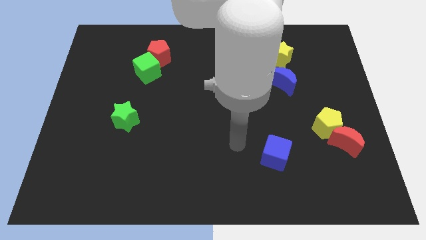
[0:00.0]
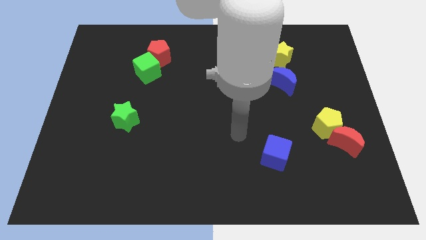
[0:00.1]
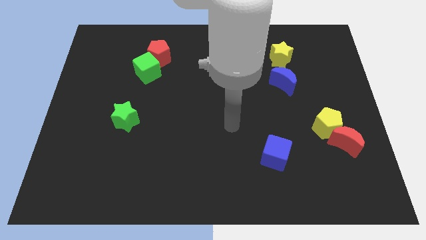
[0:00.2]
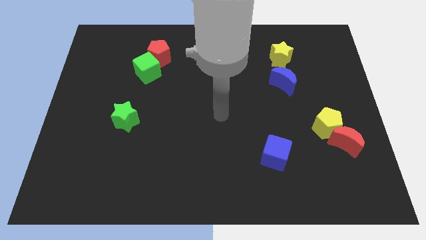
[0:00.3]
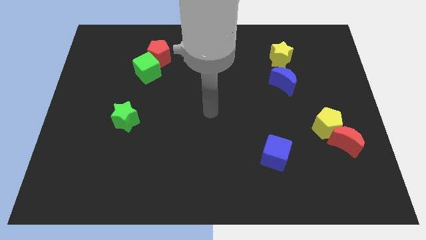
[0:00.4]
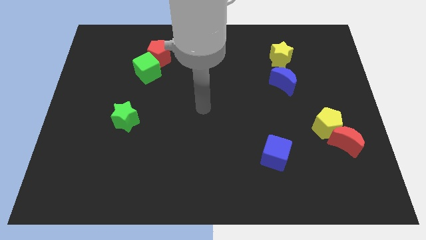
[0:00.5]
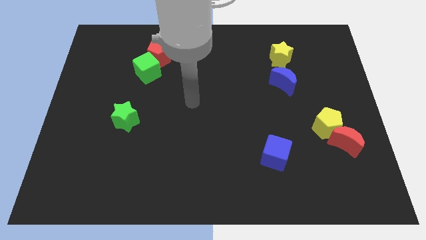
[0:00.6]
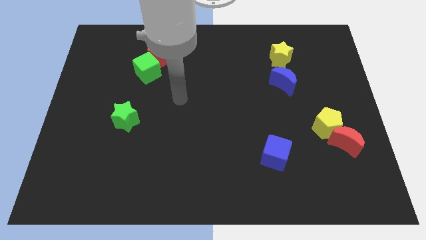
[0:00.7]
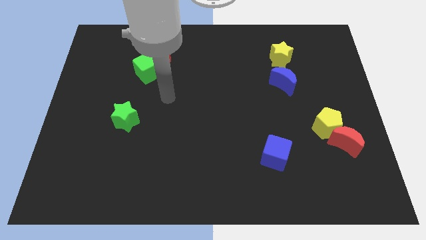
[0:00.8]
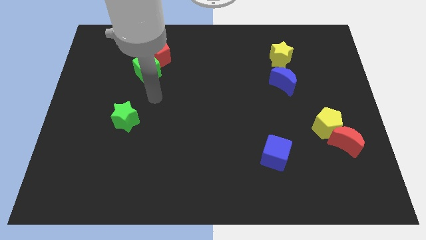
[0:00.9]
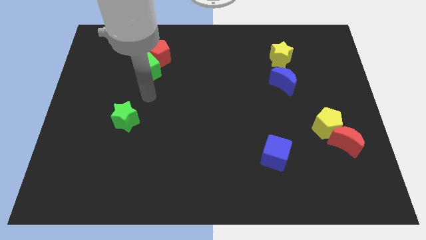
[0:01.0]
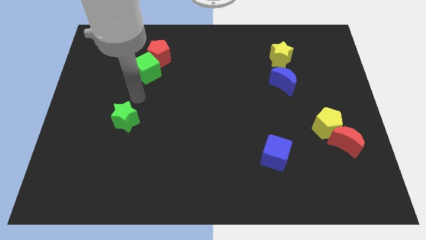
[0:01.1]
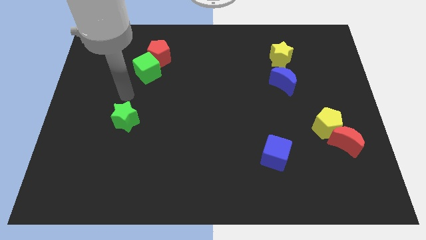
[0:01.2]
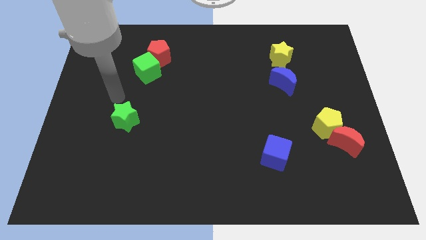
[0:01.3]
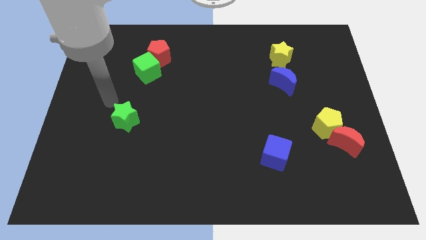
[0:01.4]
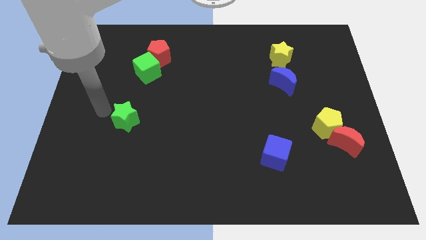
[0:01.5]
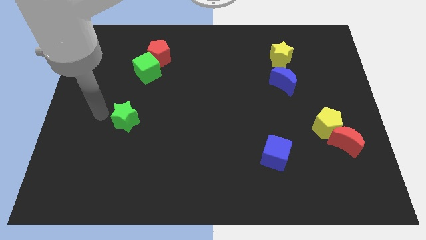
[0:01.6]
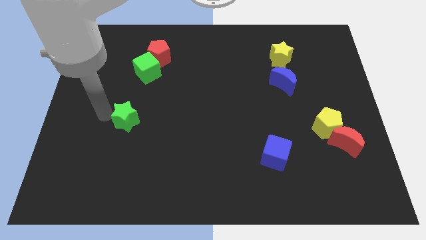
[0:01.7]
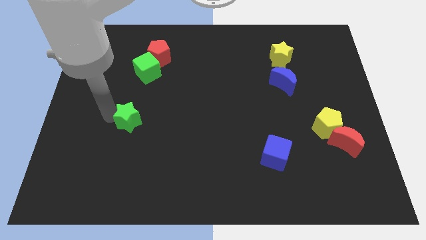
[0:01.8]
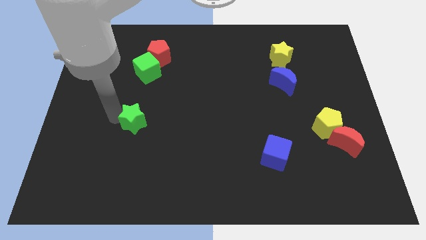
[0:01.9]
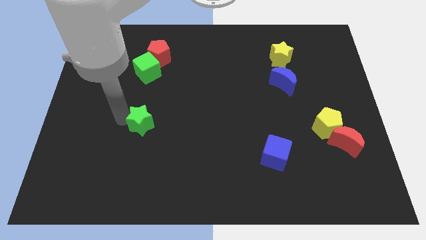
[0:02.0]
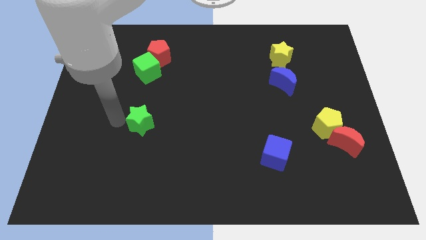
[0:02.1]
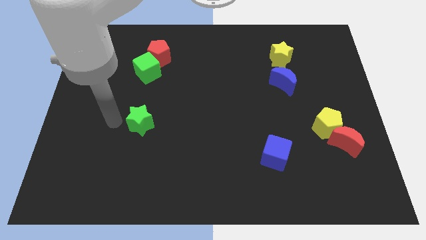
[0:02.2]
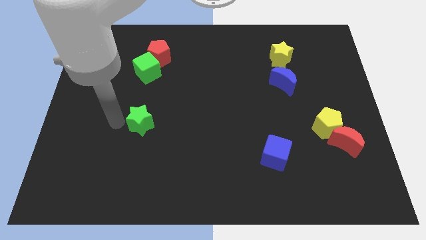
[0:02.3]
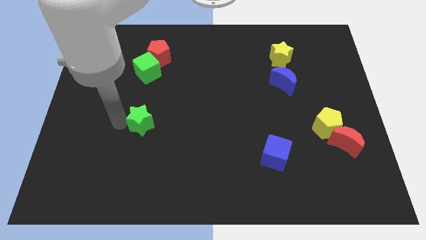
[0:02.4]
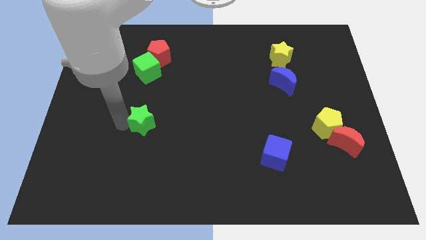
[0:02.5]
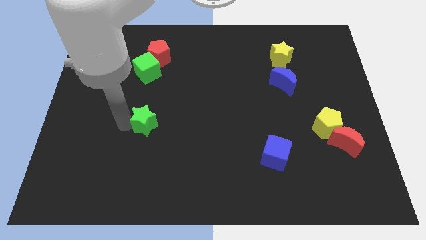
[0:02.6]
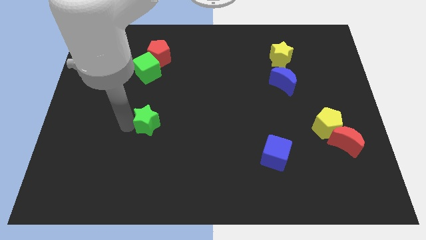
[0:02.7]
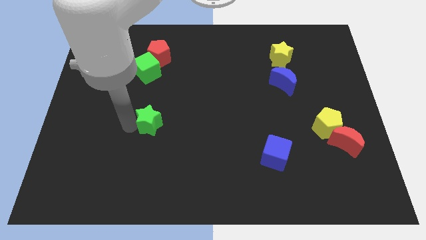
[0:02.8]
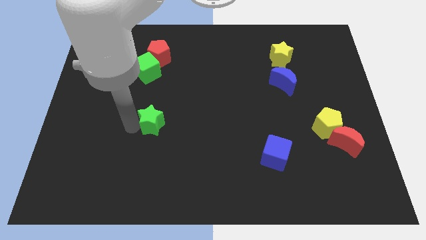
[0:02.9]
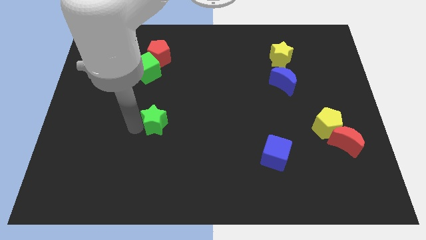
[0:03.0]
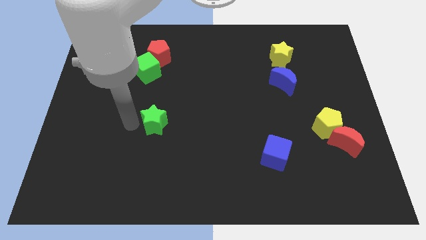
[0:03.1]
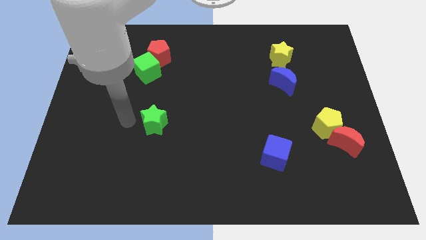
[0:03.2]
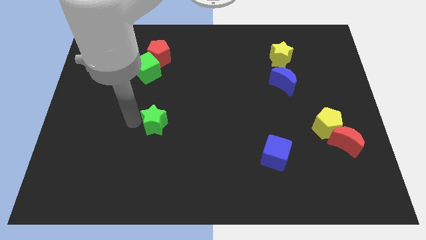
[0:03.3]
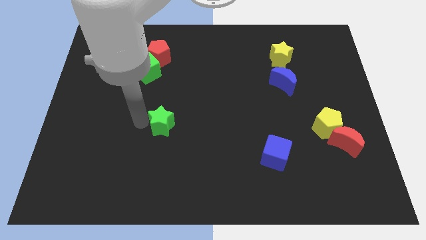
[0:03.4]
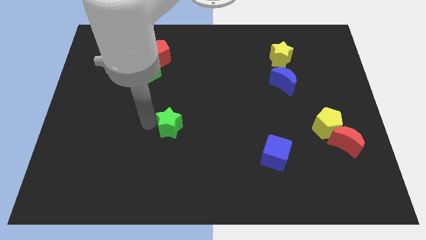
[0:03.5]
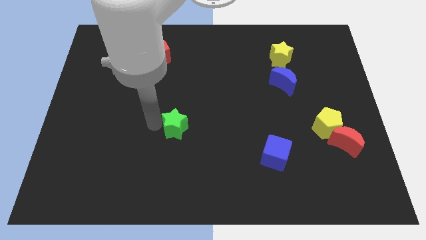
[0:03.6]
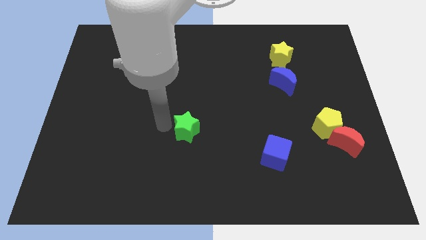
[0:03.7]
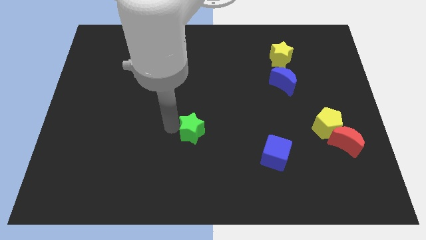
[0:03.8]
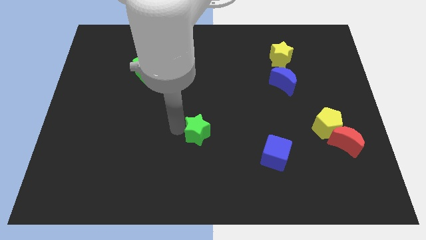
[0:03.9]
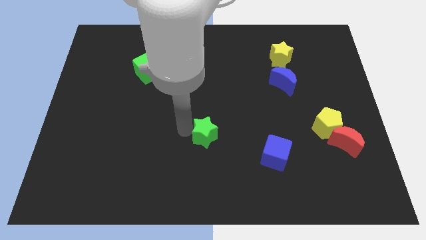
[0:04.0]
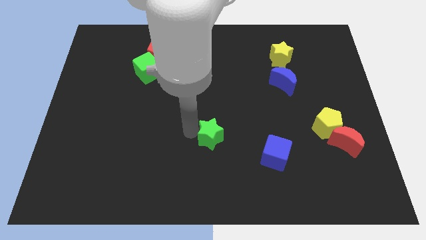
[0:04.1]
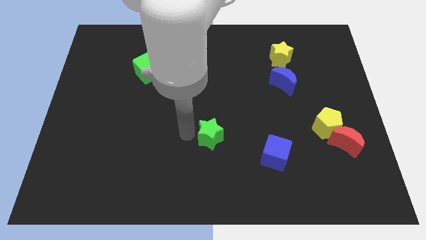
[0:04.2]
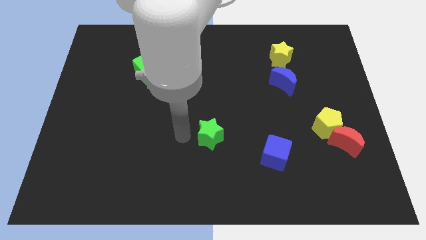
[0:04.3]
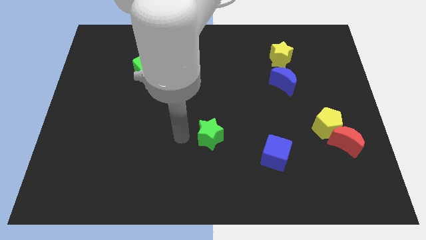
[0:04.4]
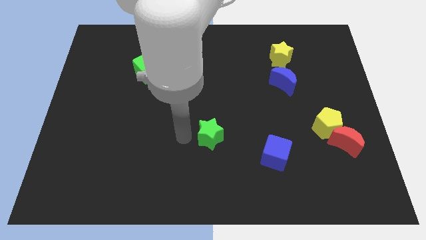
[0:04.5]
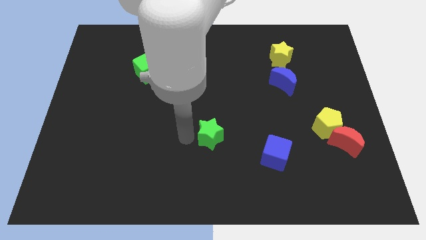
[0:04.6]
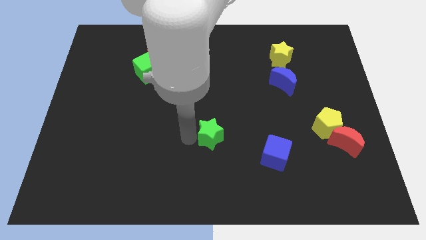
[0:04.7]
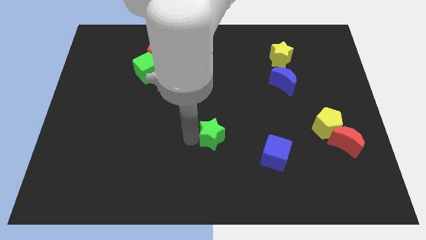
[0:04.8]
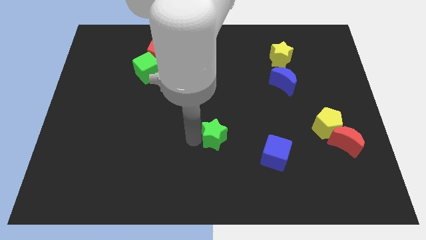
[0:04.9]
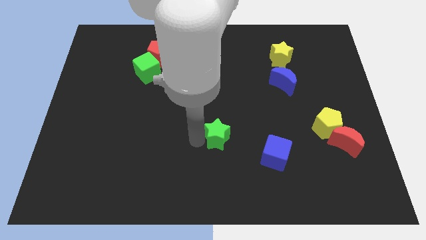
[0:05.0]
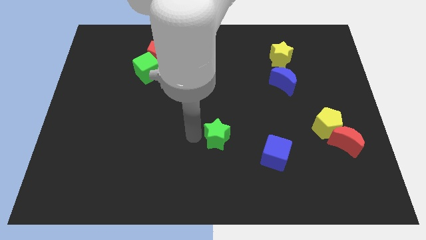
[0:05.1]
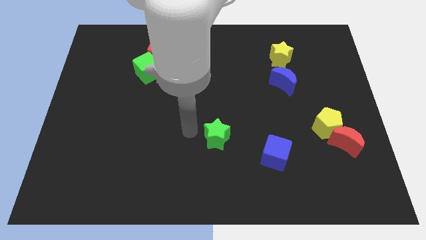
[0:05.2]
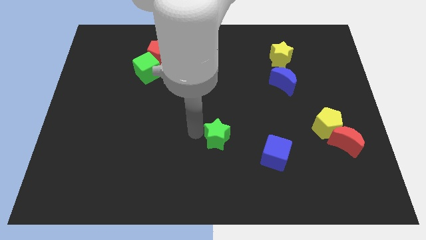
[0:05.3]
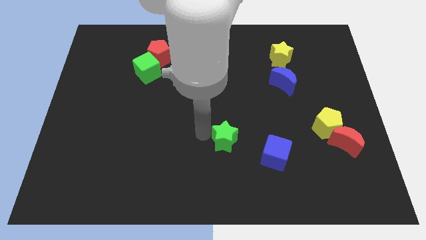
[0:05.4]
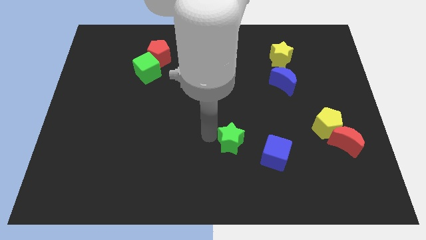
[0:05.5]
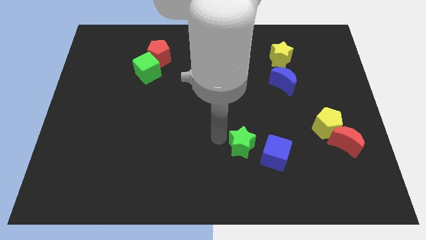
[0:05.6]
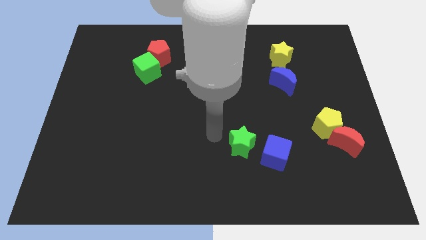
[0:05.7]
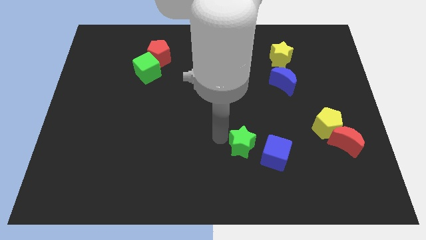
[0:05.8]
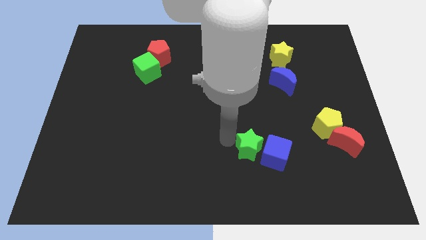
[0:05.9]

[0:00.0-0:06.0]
slide the green star to the blue cube

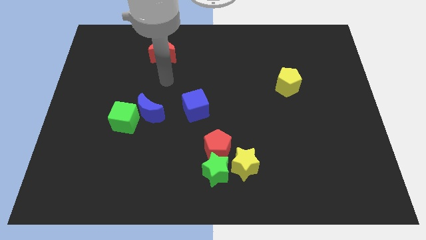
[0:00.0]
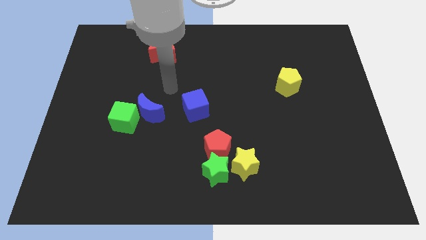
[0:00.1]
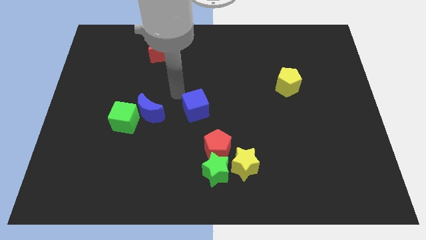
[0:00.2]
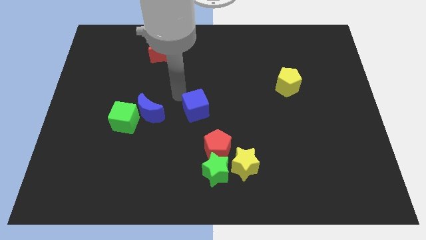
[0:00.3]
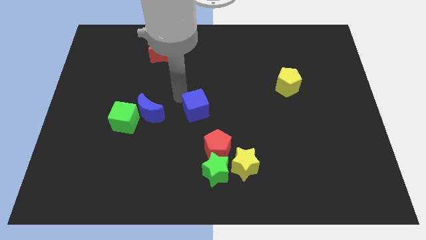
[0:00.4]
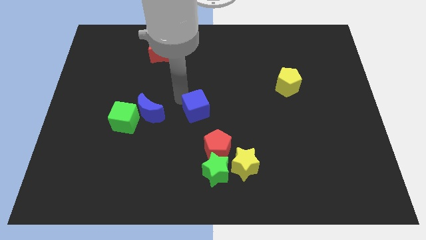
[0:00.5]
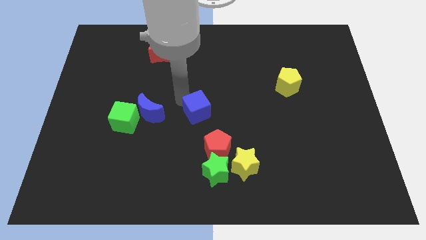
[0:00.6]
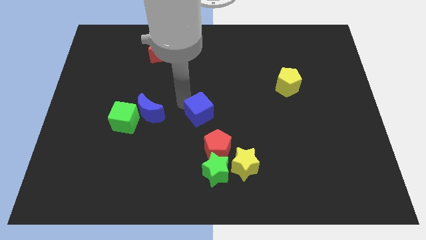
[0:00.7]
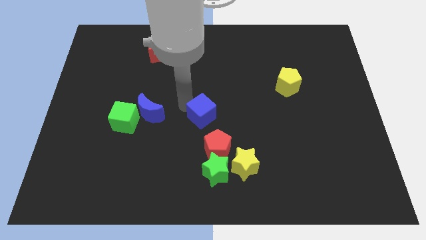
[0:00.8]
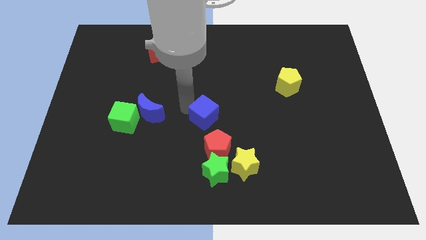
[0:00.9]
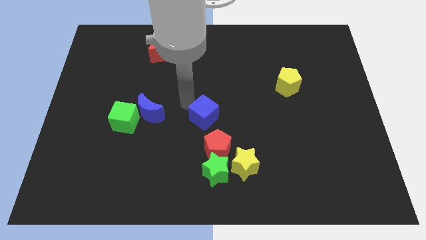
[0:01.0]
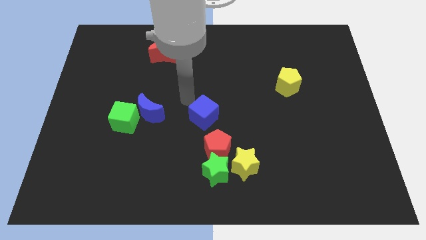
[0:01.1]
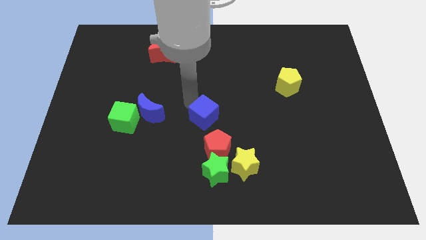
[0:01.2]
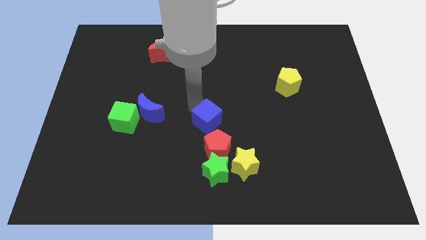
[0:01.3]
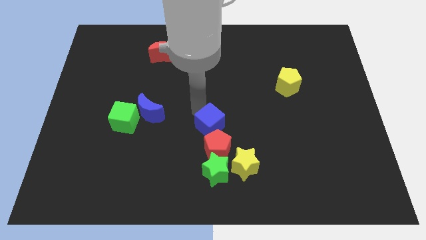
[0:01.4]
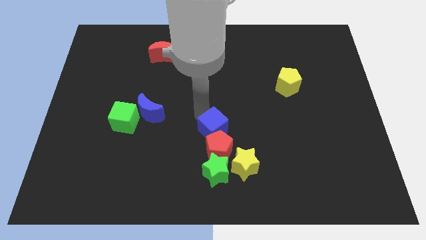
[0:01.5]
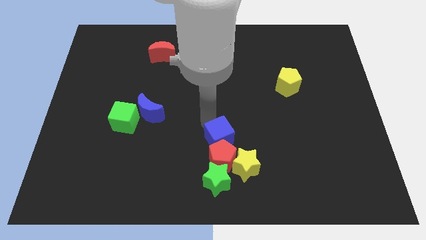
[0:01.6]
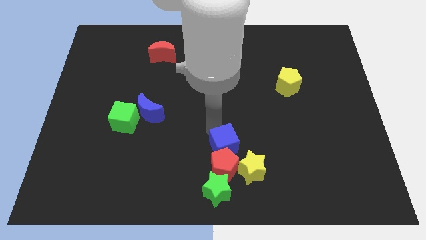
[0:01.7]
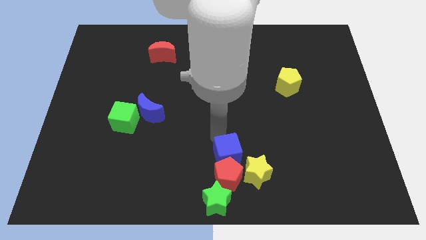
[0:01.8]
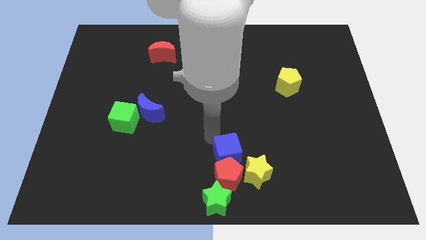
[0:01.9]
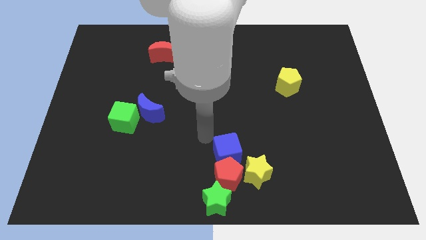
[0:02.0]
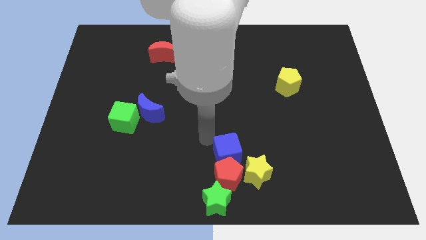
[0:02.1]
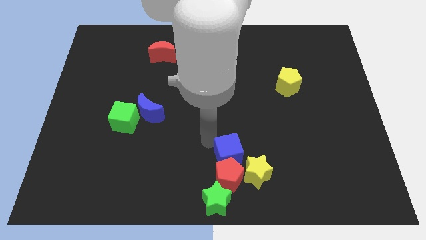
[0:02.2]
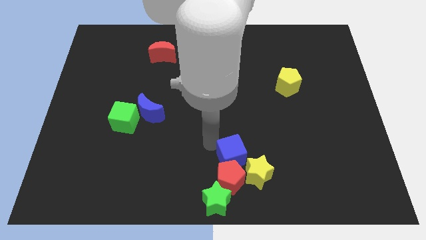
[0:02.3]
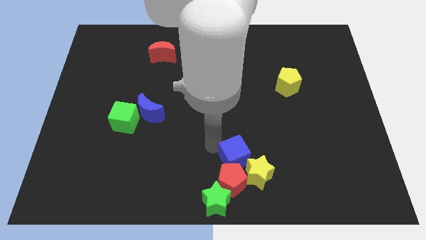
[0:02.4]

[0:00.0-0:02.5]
put the blue cube to the yellow star
